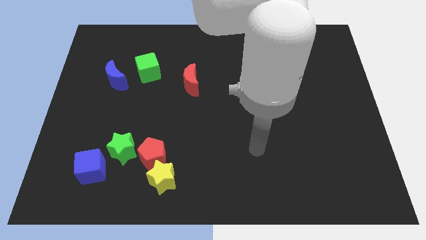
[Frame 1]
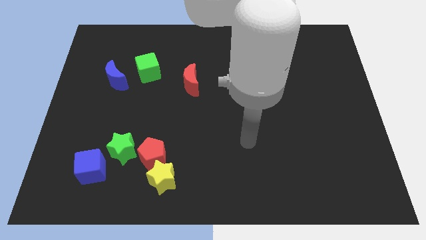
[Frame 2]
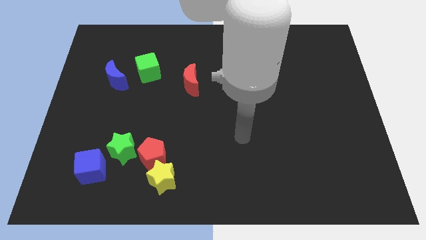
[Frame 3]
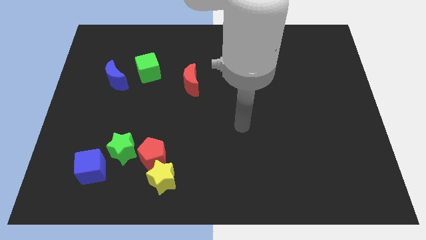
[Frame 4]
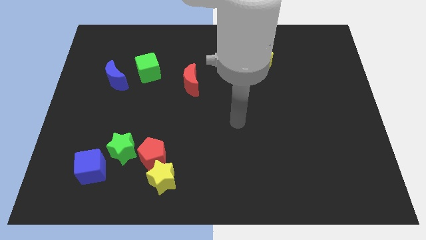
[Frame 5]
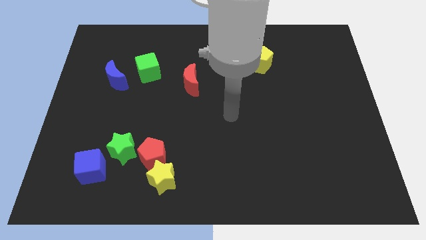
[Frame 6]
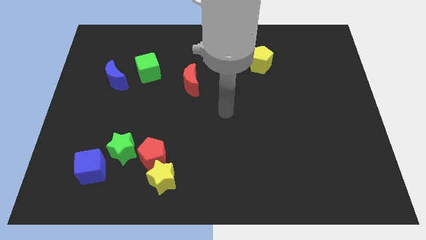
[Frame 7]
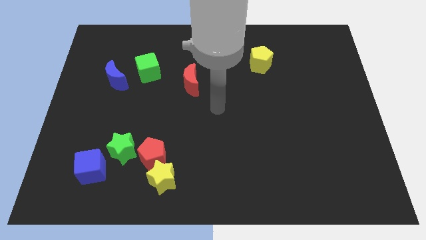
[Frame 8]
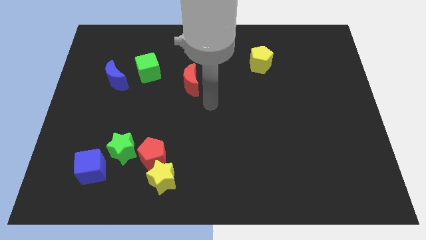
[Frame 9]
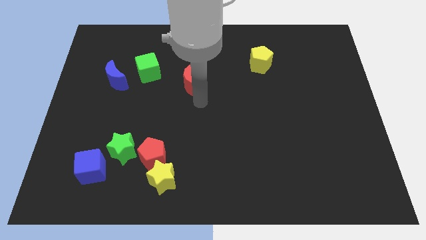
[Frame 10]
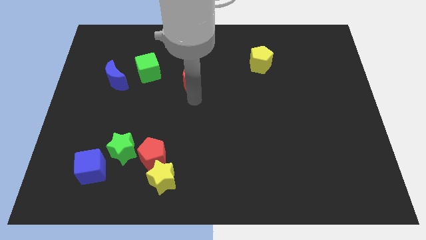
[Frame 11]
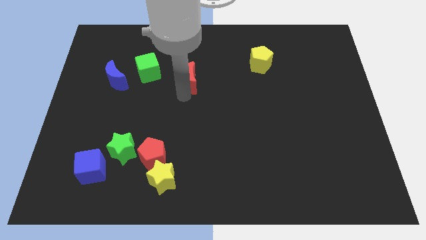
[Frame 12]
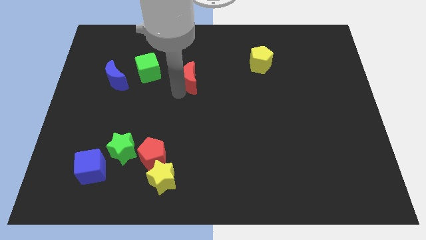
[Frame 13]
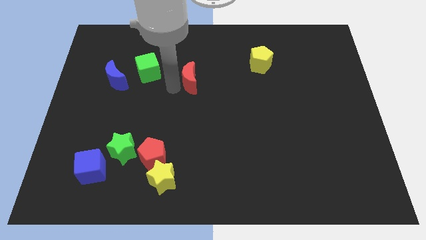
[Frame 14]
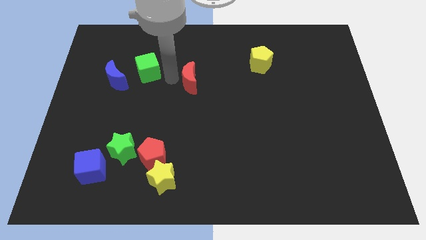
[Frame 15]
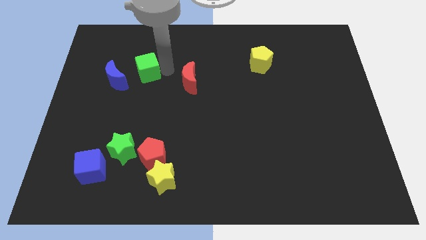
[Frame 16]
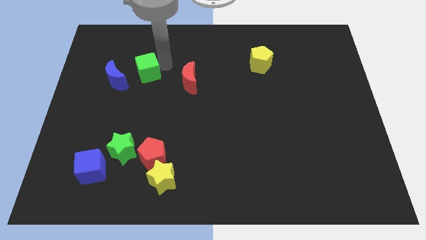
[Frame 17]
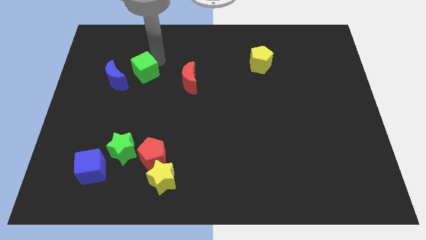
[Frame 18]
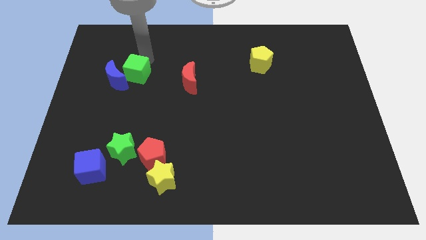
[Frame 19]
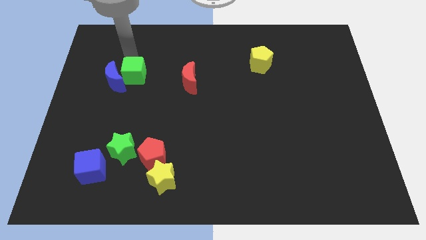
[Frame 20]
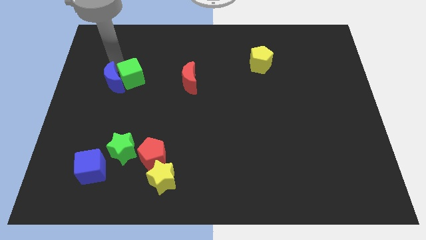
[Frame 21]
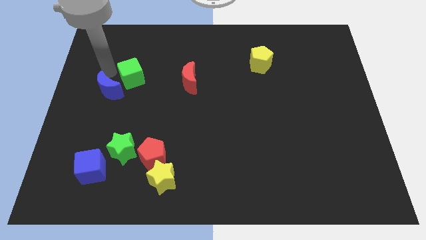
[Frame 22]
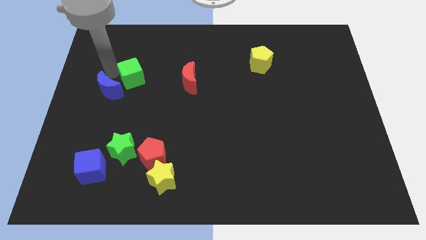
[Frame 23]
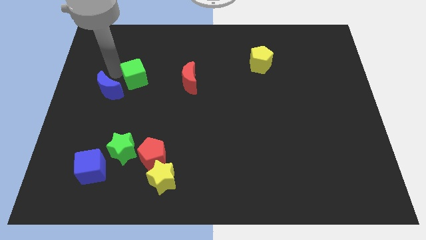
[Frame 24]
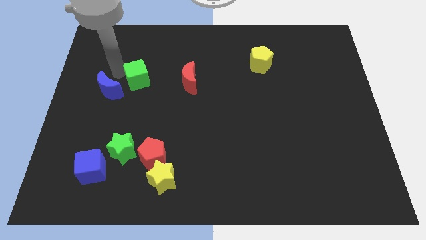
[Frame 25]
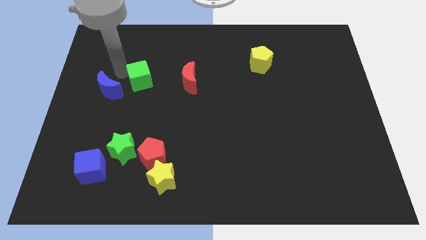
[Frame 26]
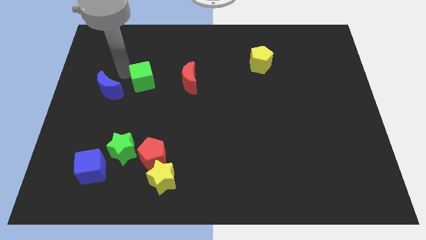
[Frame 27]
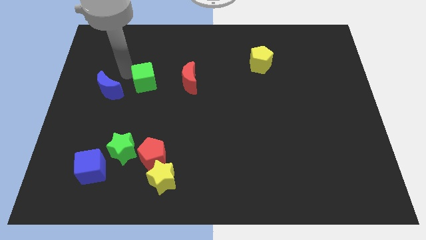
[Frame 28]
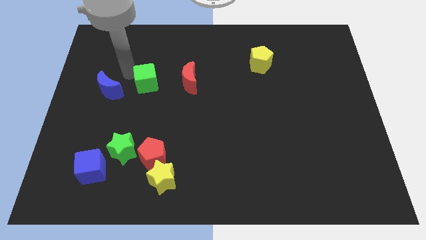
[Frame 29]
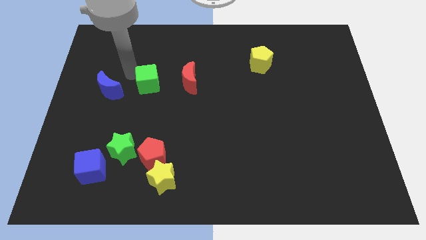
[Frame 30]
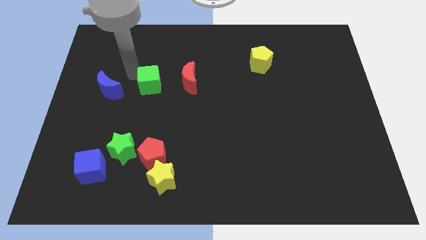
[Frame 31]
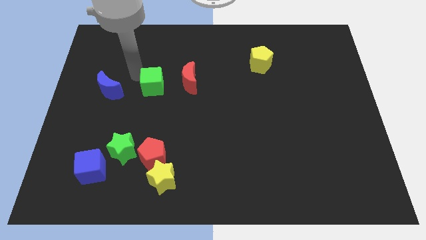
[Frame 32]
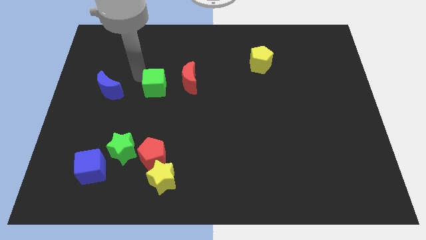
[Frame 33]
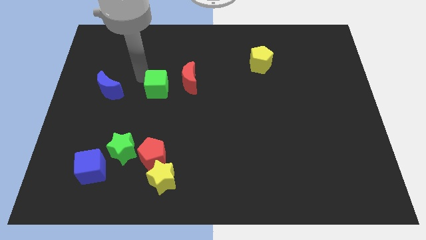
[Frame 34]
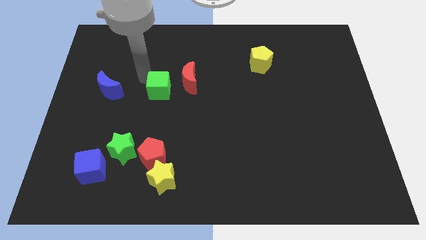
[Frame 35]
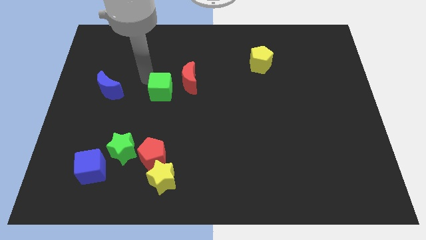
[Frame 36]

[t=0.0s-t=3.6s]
slide the green cube downwards and to the right diagonally somewhat

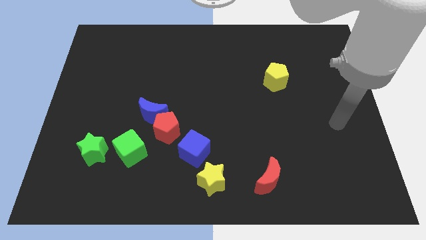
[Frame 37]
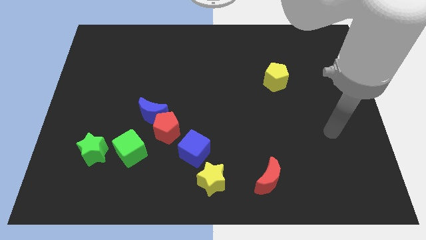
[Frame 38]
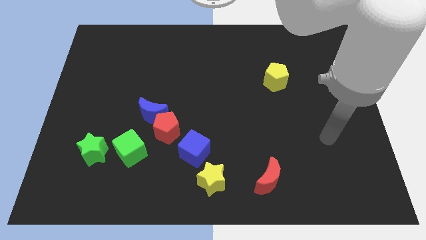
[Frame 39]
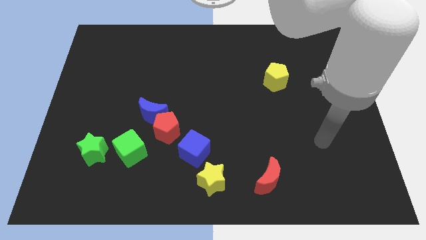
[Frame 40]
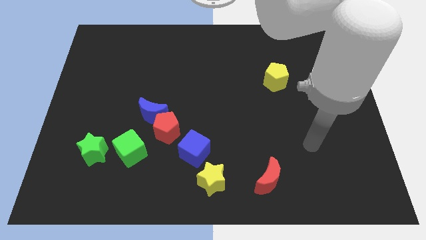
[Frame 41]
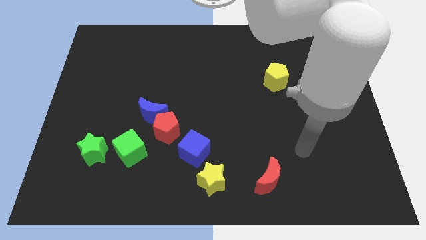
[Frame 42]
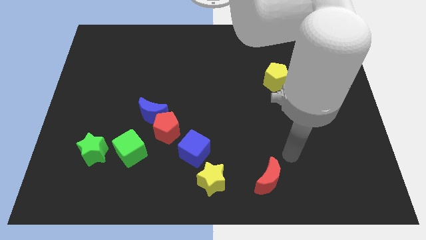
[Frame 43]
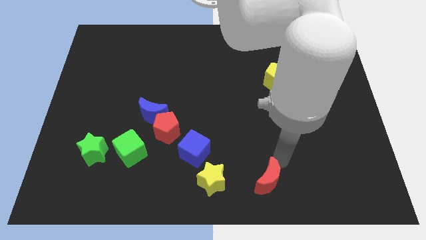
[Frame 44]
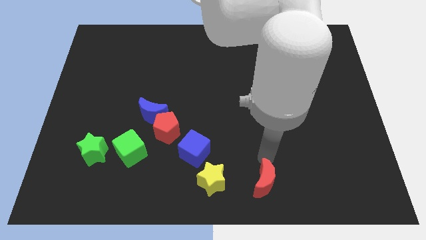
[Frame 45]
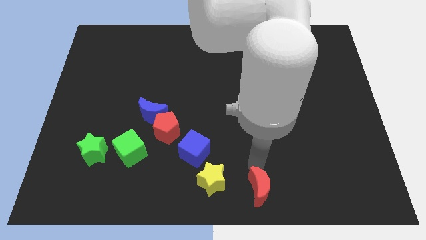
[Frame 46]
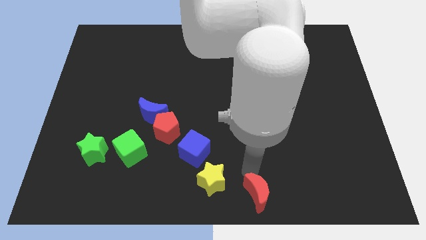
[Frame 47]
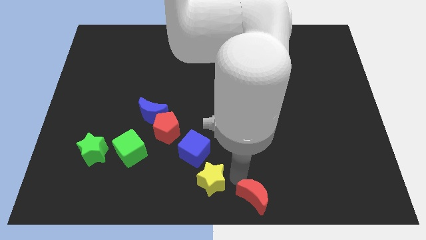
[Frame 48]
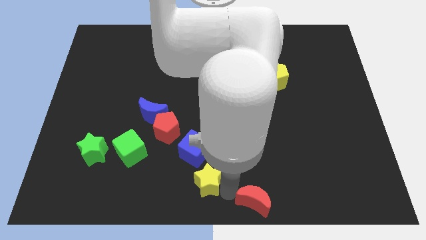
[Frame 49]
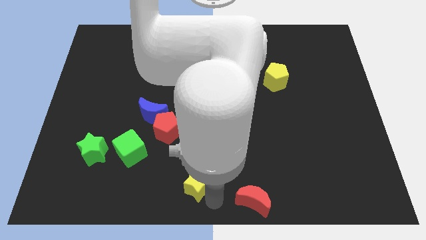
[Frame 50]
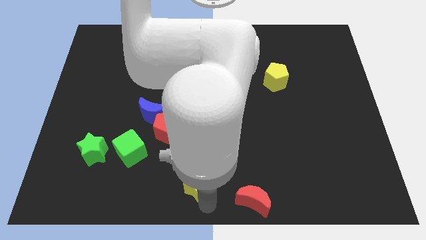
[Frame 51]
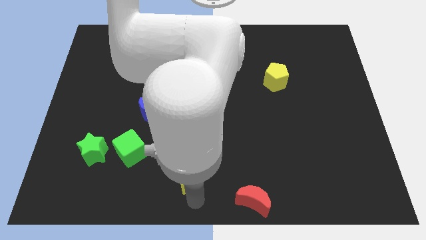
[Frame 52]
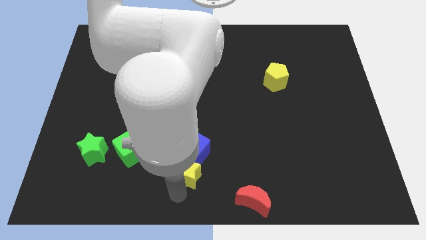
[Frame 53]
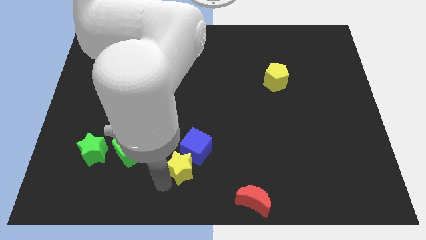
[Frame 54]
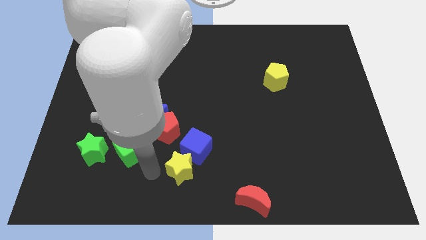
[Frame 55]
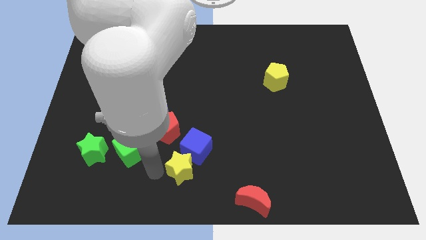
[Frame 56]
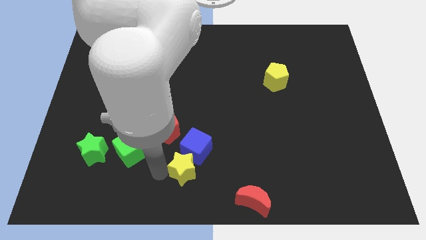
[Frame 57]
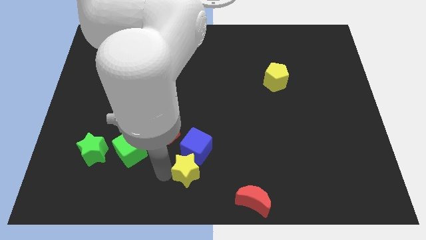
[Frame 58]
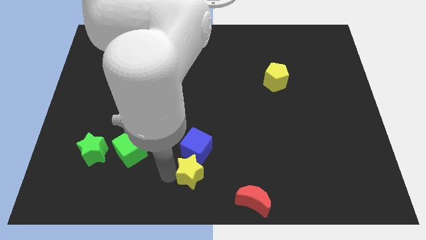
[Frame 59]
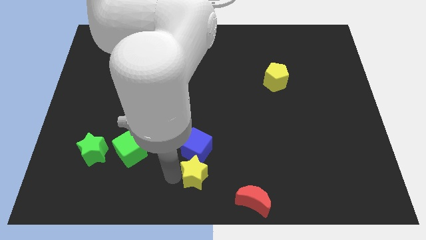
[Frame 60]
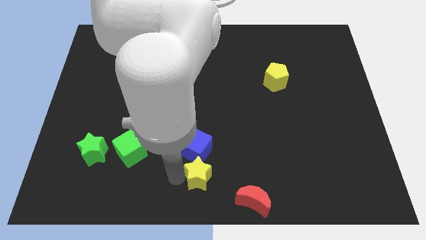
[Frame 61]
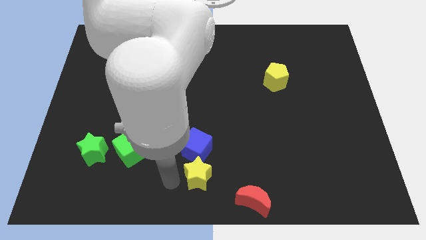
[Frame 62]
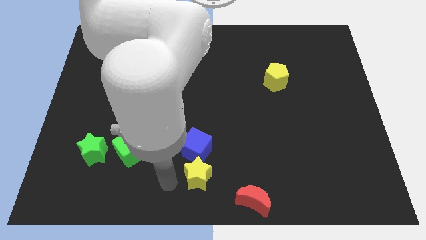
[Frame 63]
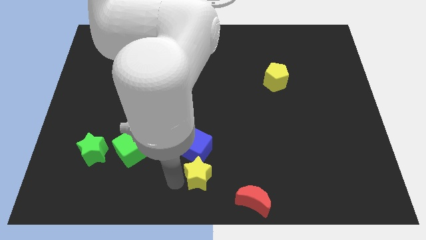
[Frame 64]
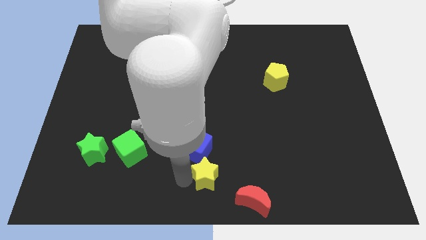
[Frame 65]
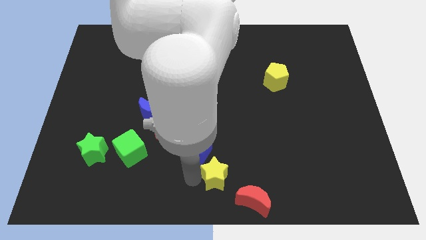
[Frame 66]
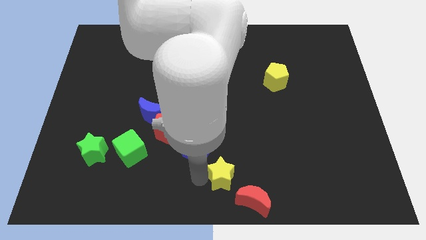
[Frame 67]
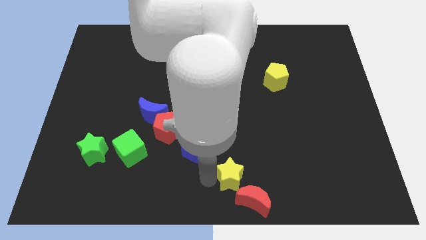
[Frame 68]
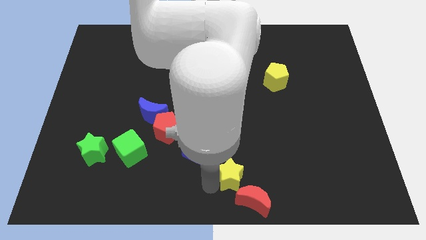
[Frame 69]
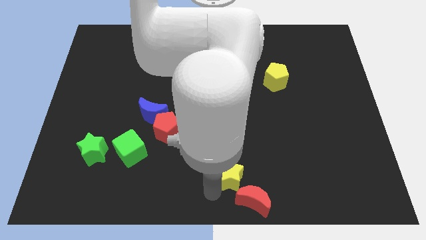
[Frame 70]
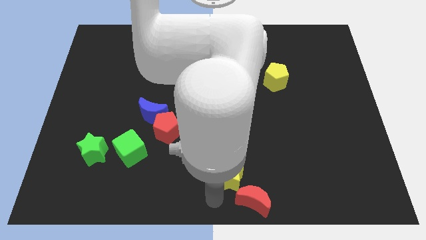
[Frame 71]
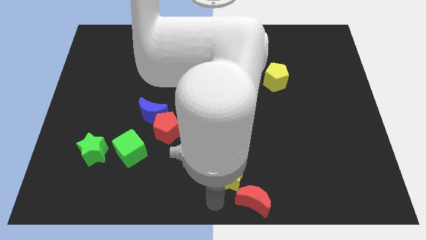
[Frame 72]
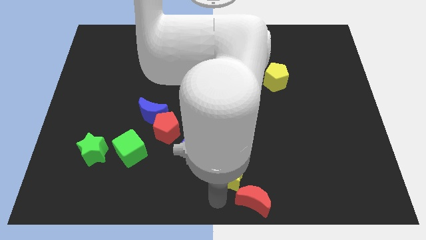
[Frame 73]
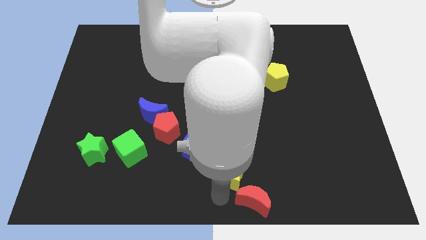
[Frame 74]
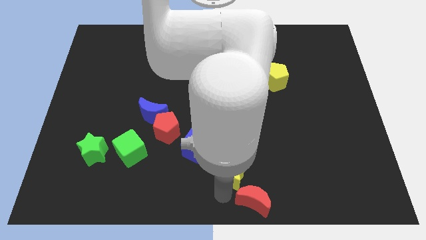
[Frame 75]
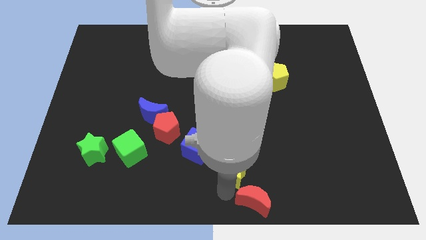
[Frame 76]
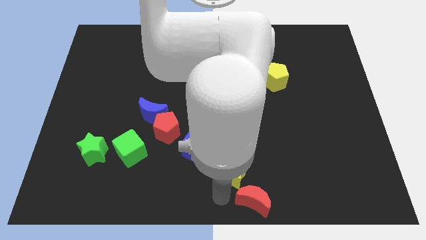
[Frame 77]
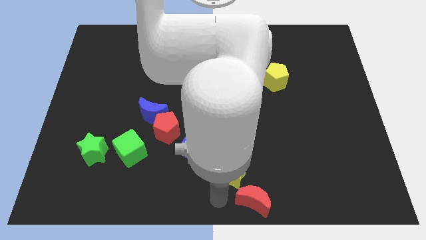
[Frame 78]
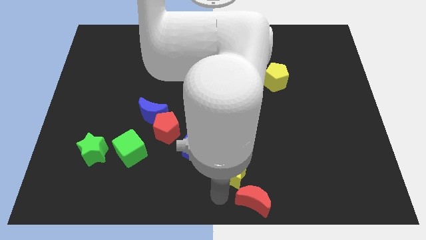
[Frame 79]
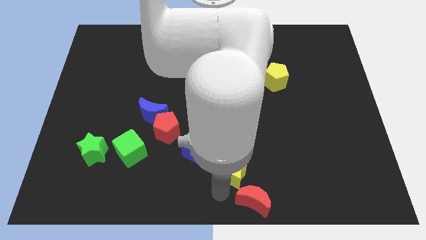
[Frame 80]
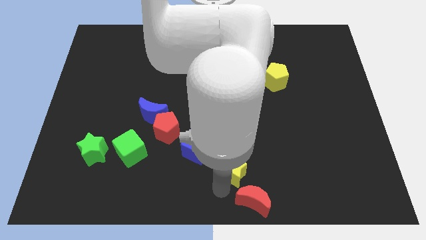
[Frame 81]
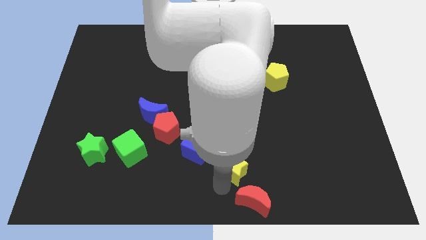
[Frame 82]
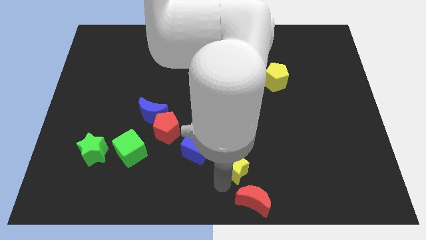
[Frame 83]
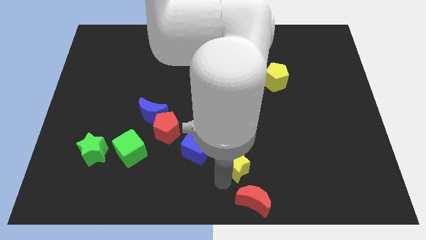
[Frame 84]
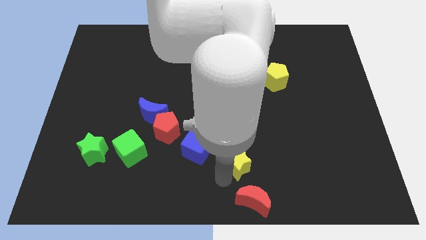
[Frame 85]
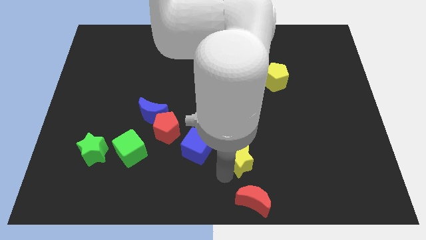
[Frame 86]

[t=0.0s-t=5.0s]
push the yellow star a little diagonally up and right
